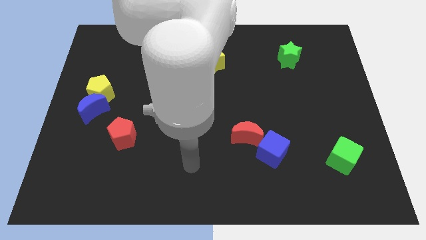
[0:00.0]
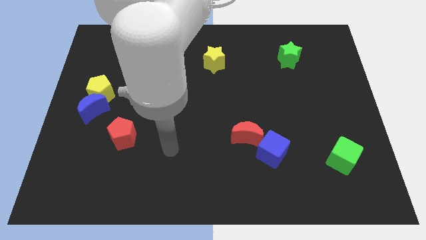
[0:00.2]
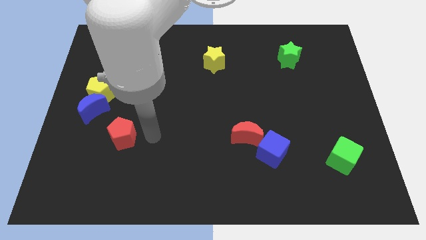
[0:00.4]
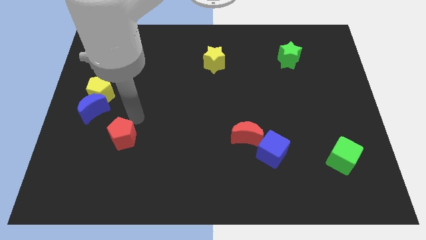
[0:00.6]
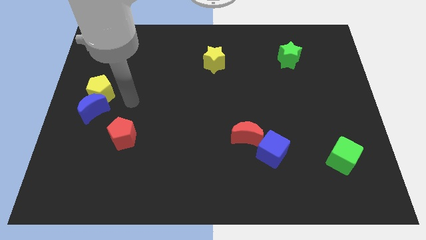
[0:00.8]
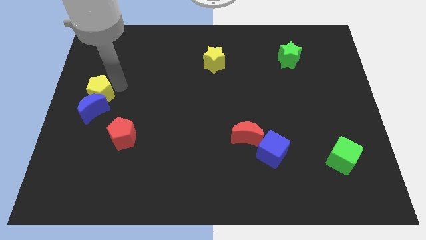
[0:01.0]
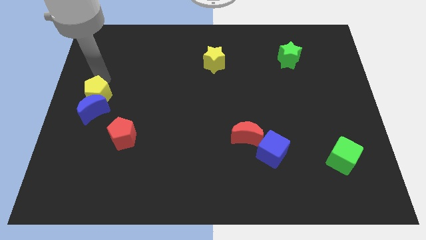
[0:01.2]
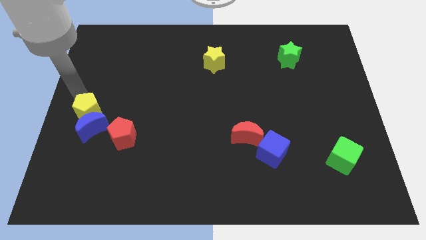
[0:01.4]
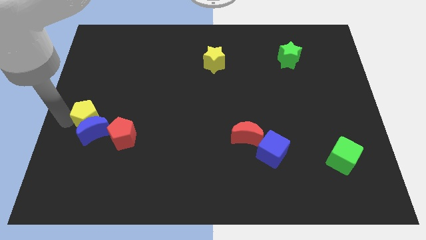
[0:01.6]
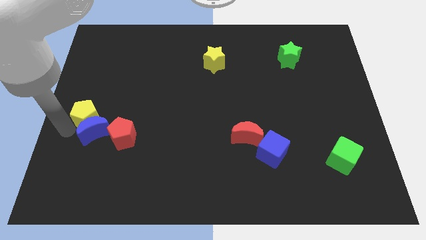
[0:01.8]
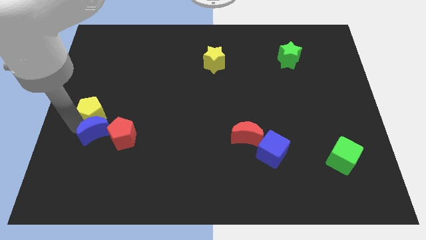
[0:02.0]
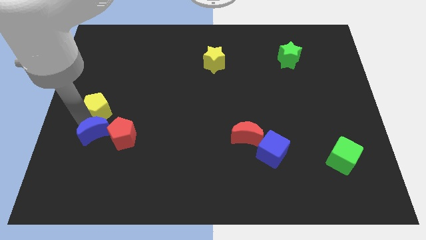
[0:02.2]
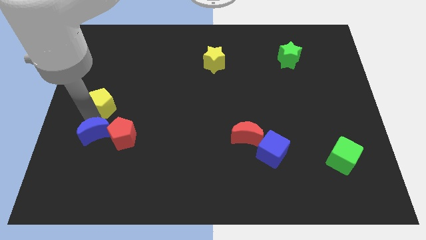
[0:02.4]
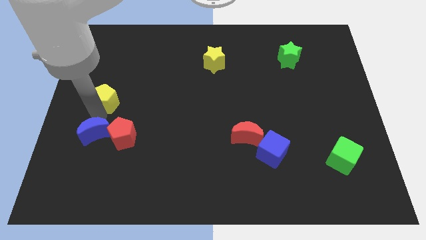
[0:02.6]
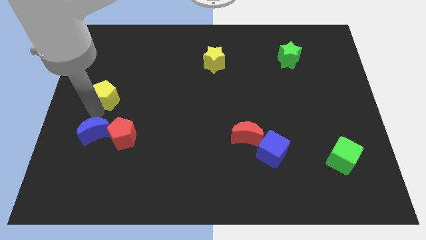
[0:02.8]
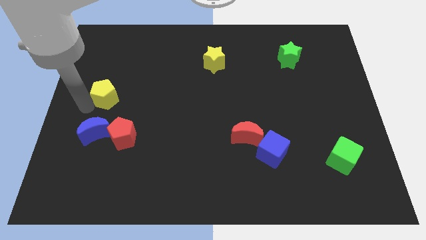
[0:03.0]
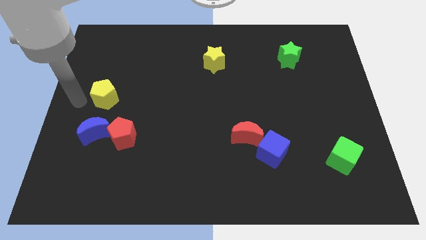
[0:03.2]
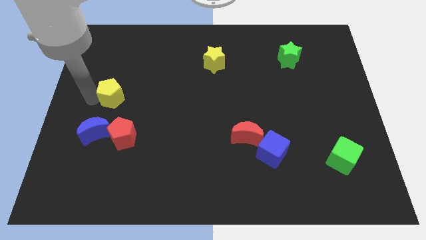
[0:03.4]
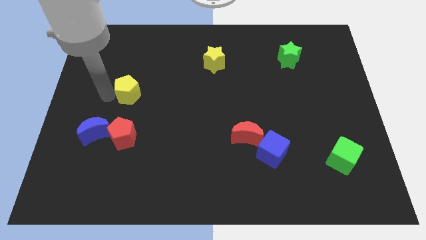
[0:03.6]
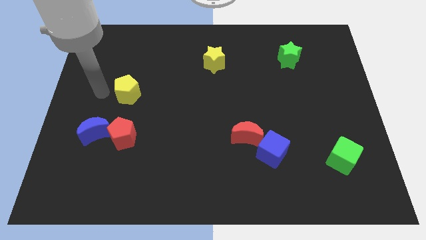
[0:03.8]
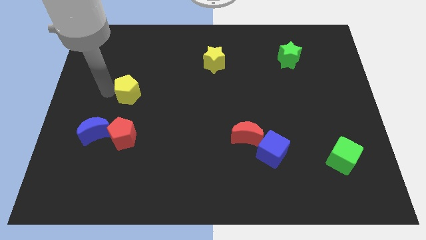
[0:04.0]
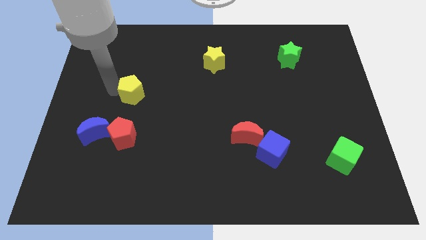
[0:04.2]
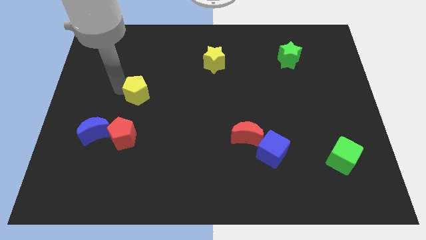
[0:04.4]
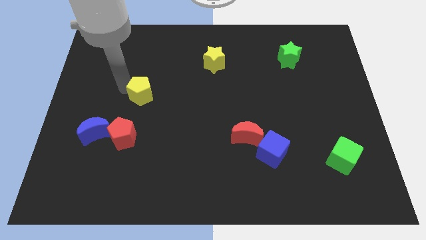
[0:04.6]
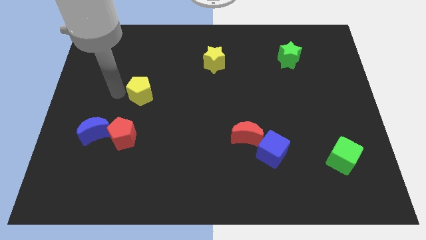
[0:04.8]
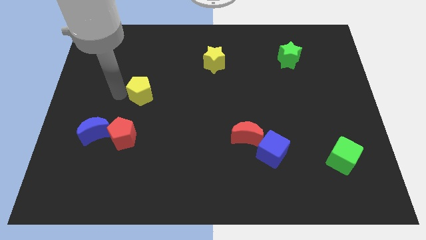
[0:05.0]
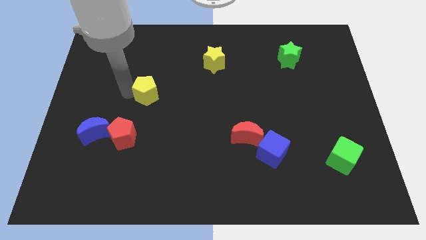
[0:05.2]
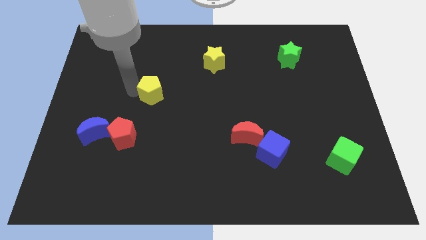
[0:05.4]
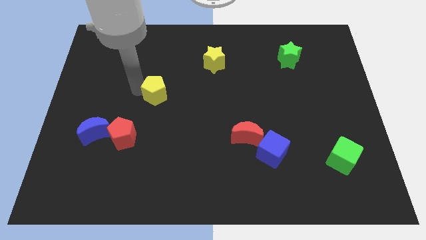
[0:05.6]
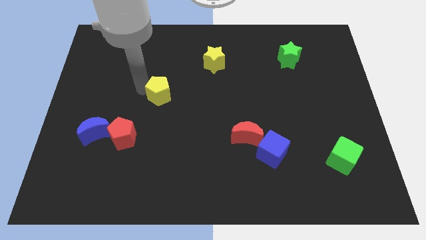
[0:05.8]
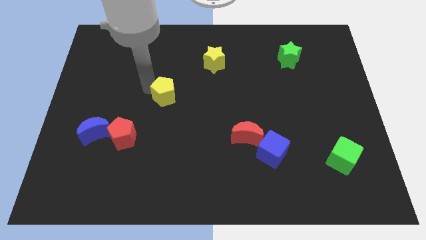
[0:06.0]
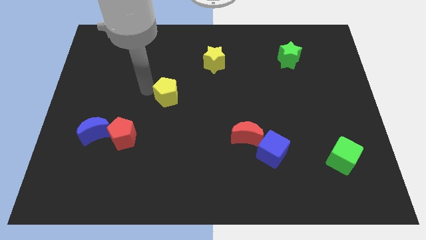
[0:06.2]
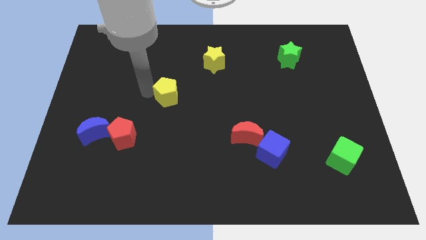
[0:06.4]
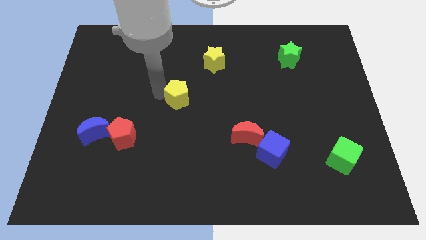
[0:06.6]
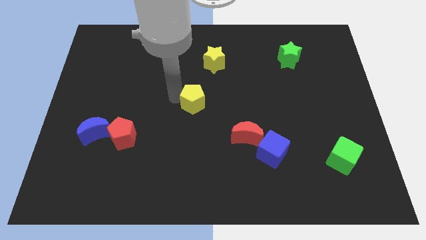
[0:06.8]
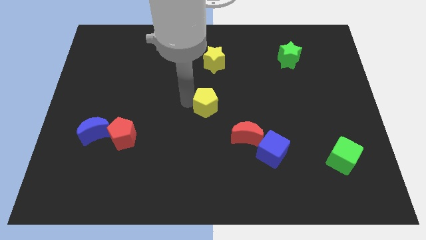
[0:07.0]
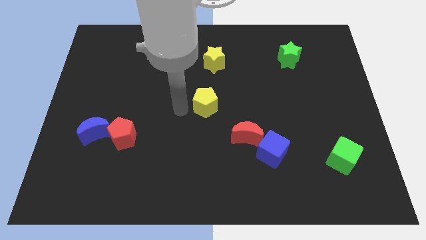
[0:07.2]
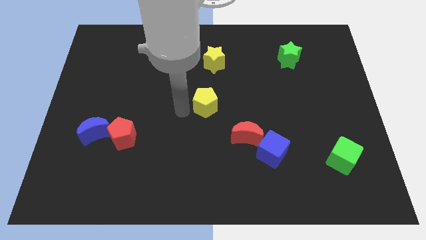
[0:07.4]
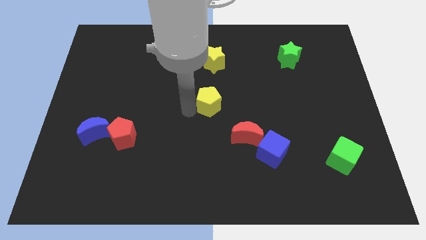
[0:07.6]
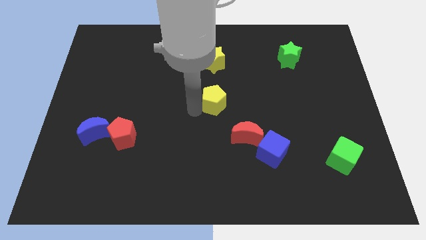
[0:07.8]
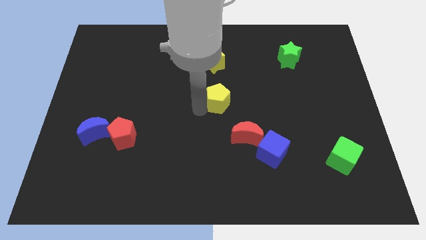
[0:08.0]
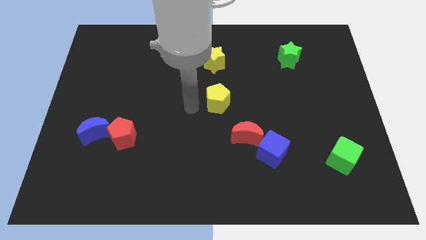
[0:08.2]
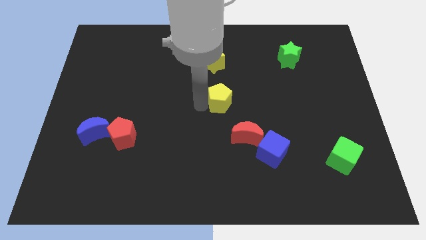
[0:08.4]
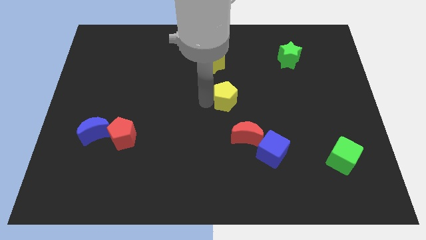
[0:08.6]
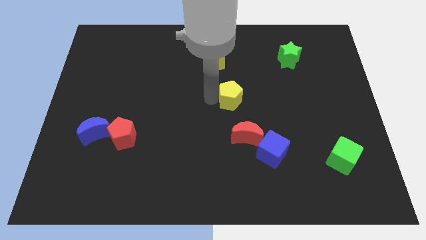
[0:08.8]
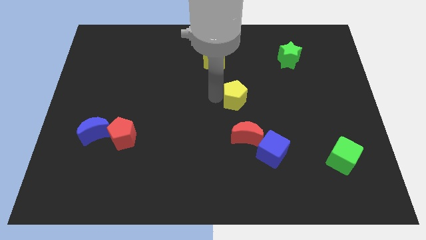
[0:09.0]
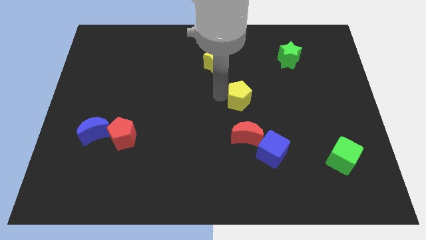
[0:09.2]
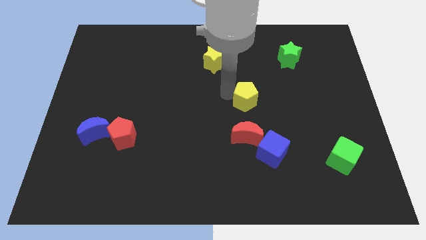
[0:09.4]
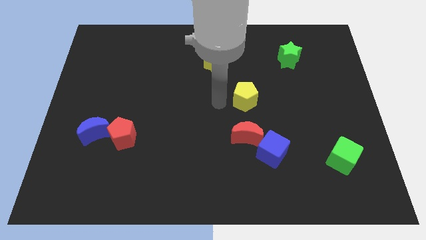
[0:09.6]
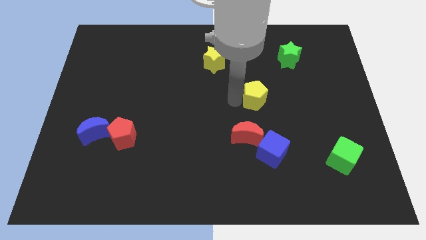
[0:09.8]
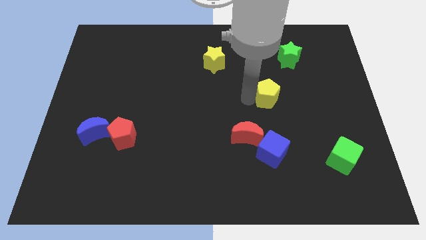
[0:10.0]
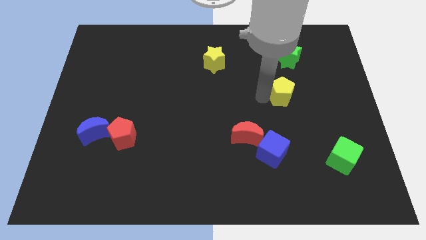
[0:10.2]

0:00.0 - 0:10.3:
push the yellow pentagon to the bottom side of the green star

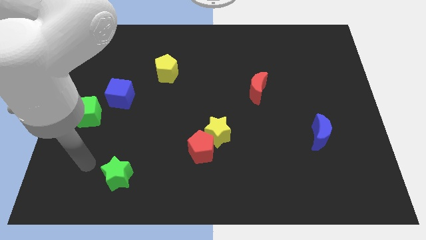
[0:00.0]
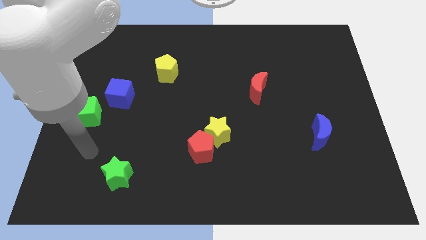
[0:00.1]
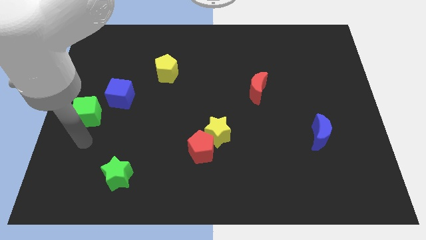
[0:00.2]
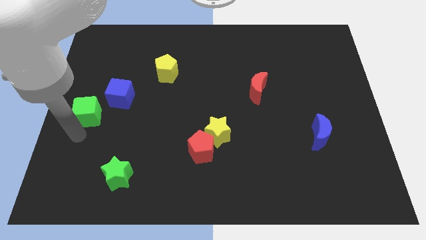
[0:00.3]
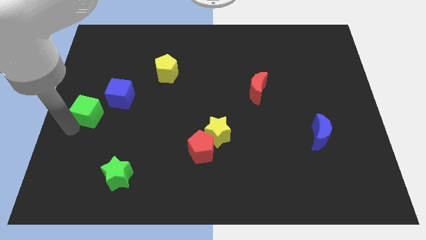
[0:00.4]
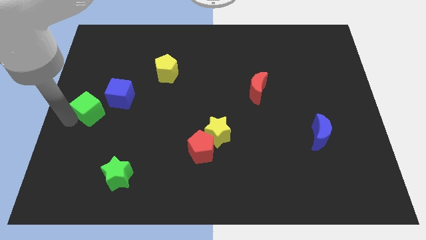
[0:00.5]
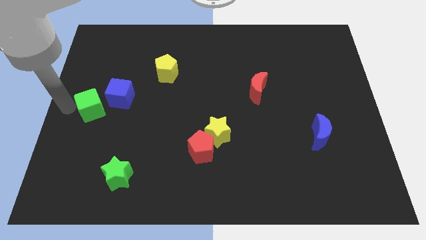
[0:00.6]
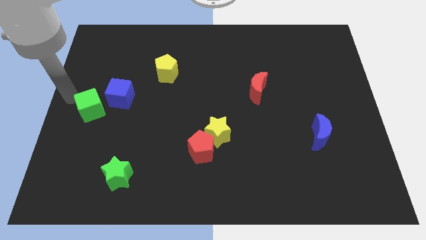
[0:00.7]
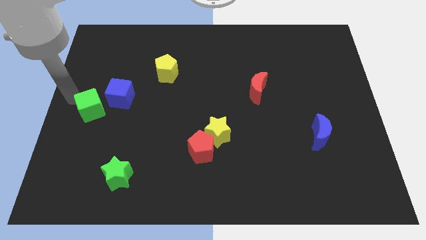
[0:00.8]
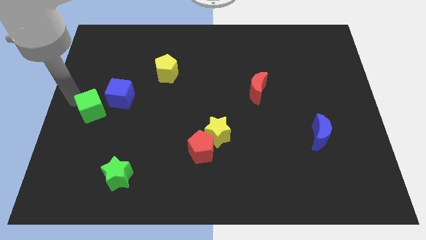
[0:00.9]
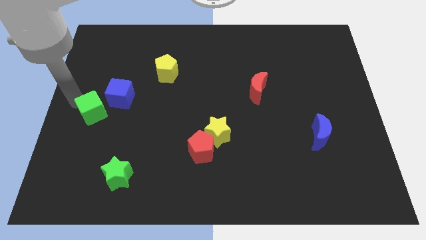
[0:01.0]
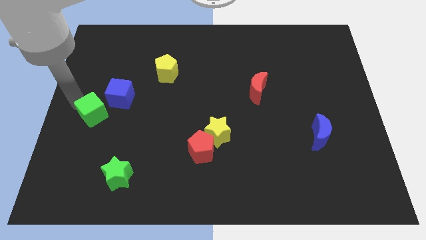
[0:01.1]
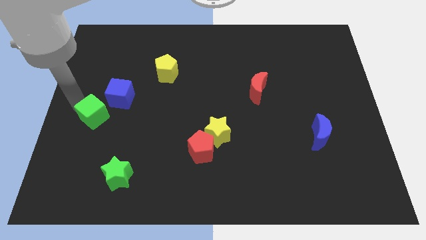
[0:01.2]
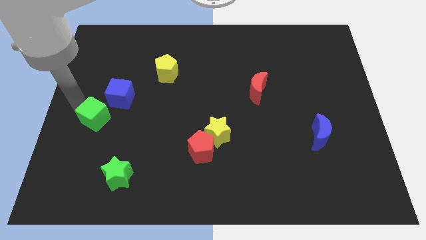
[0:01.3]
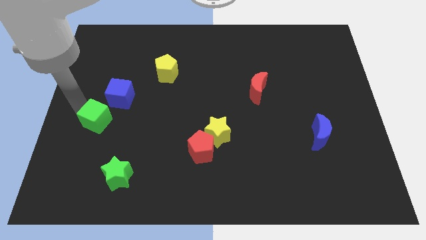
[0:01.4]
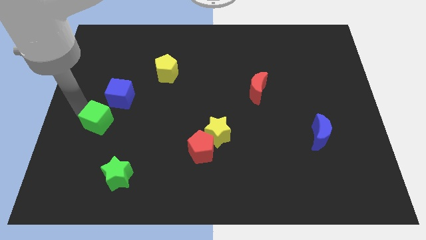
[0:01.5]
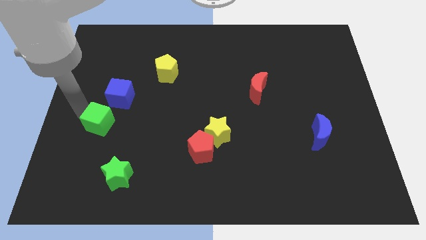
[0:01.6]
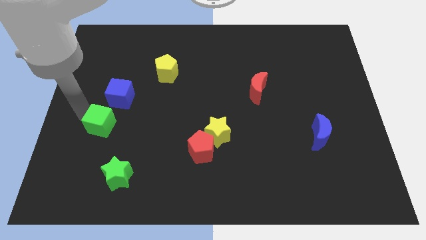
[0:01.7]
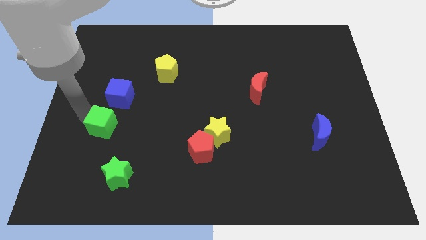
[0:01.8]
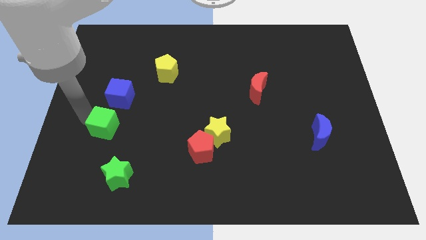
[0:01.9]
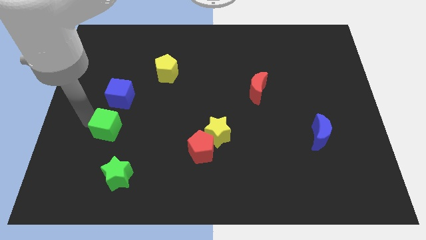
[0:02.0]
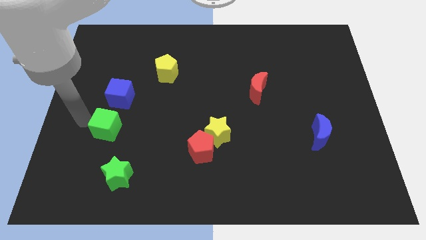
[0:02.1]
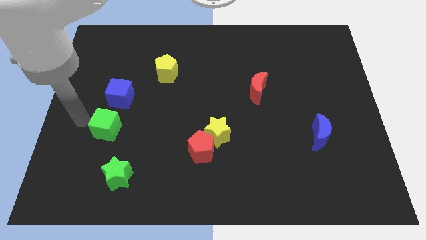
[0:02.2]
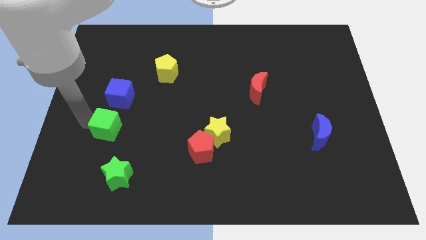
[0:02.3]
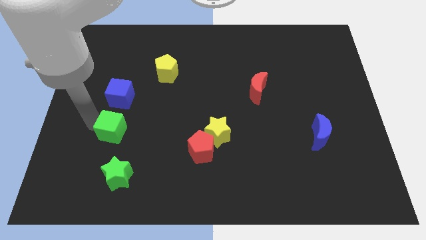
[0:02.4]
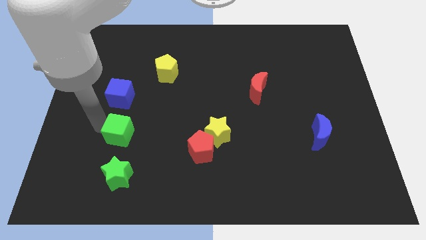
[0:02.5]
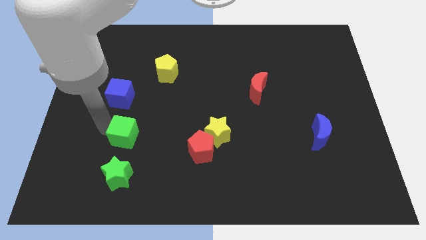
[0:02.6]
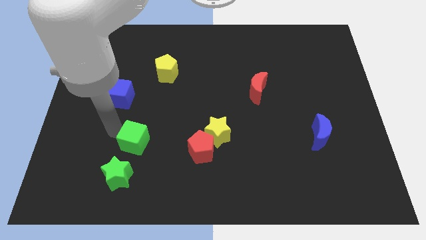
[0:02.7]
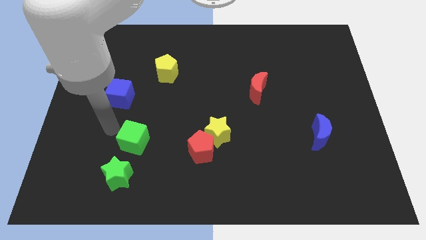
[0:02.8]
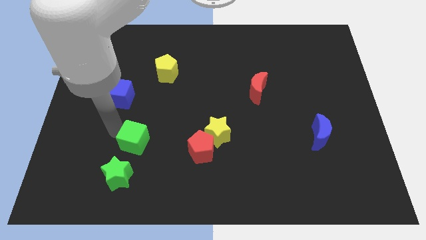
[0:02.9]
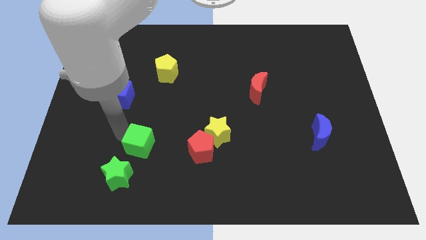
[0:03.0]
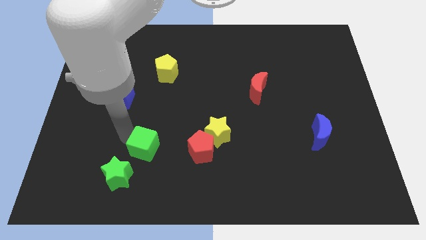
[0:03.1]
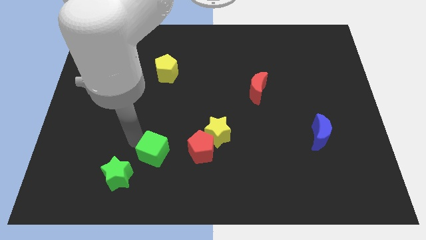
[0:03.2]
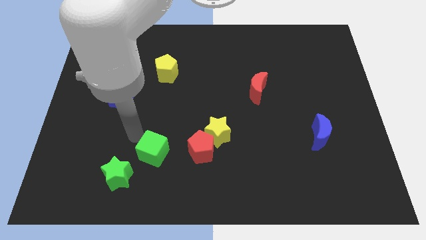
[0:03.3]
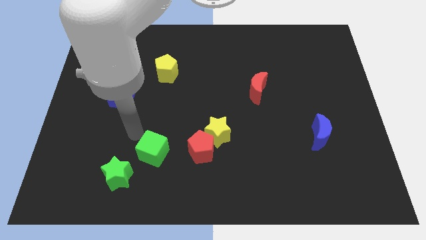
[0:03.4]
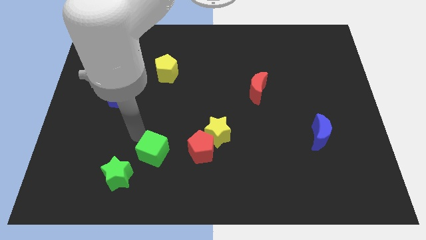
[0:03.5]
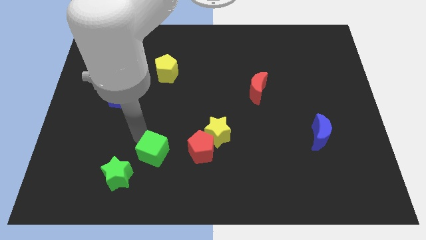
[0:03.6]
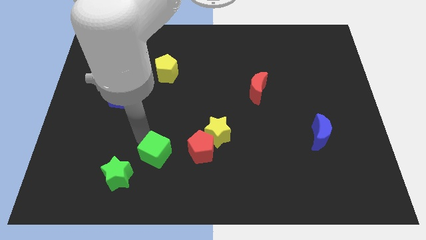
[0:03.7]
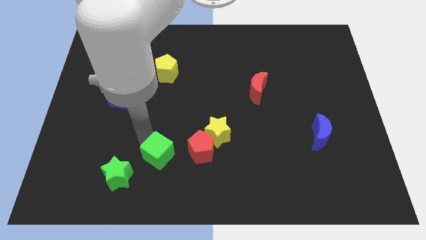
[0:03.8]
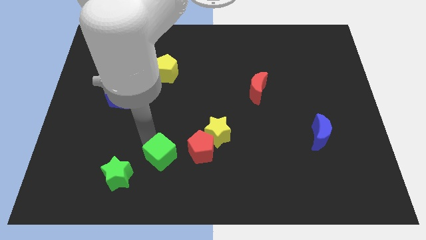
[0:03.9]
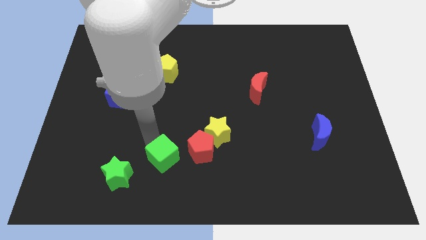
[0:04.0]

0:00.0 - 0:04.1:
push the green cube diagonally down and to the left of the red pentagon
